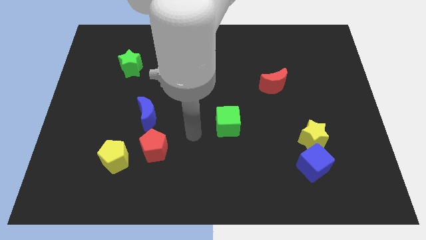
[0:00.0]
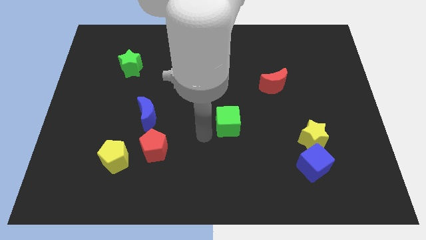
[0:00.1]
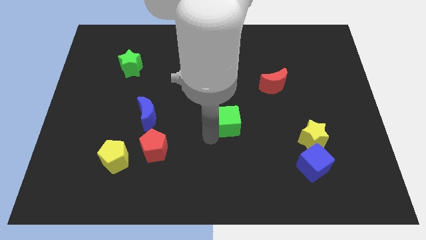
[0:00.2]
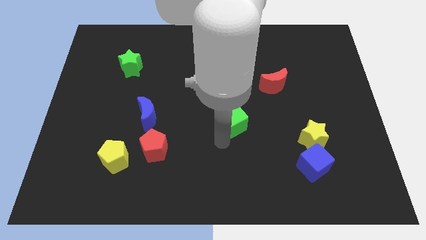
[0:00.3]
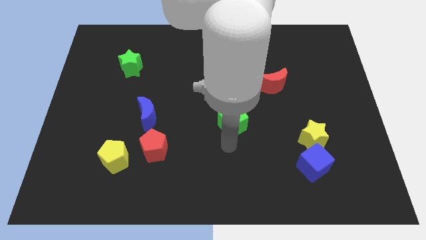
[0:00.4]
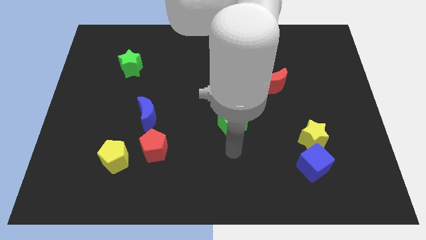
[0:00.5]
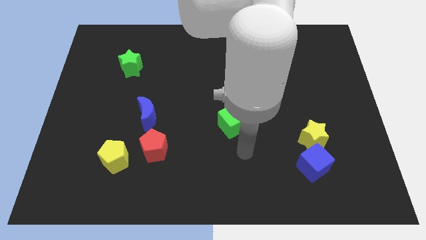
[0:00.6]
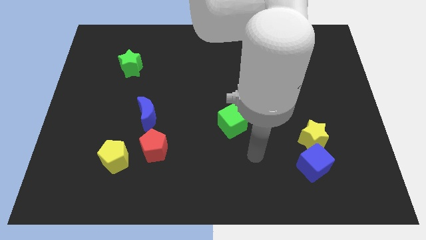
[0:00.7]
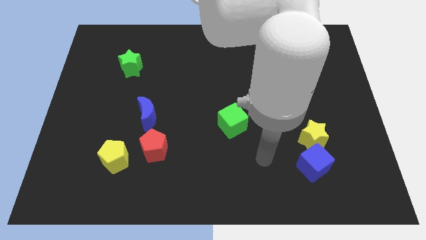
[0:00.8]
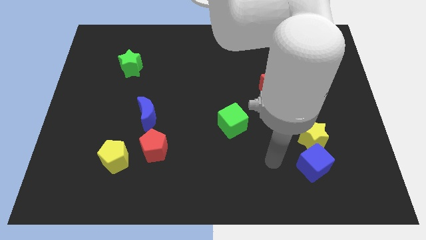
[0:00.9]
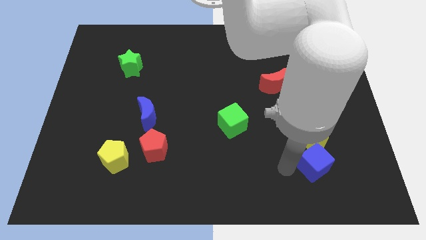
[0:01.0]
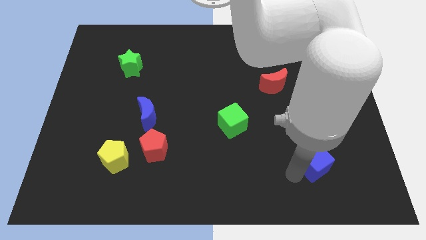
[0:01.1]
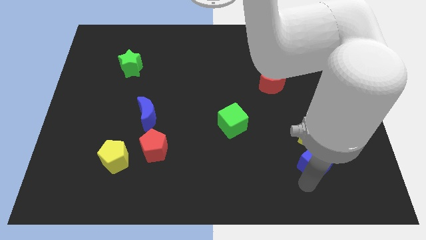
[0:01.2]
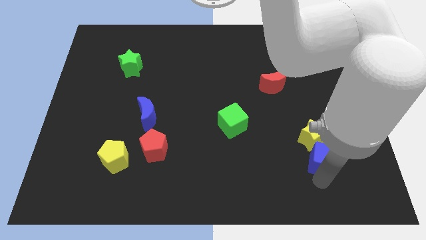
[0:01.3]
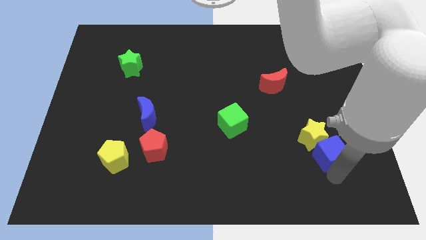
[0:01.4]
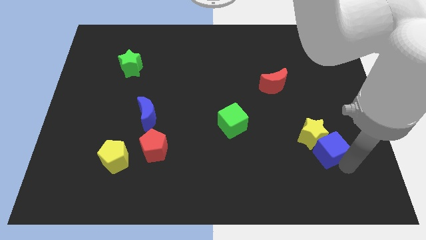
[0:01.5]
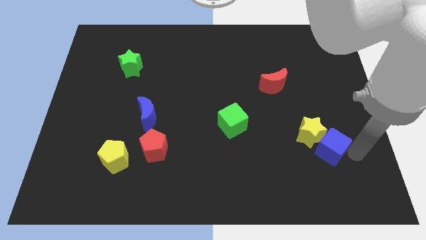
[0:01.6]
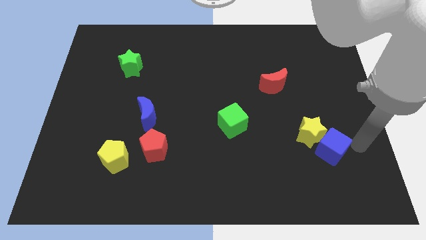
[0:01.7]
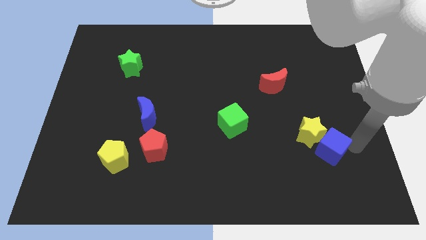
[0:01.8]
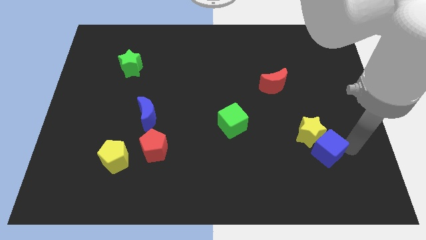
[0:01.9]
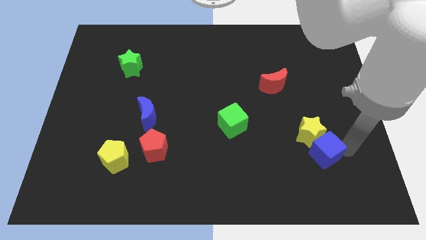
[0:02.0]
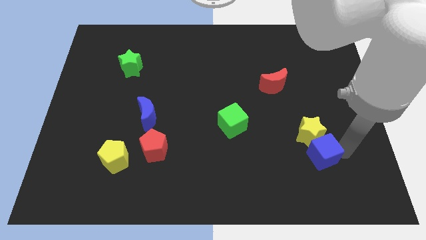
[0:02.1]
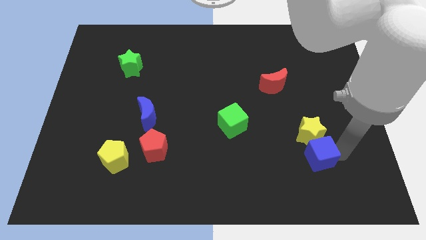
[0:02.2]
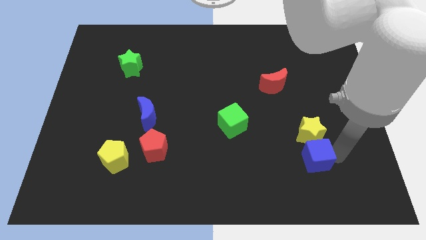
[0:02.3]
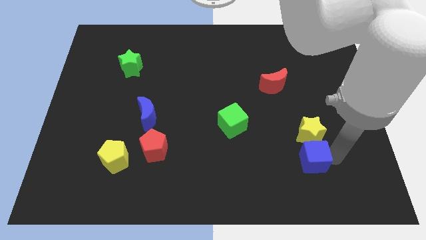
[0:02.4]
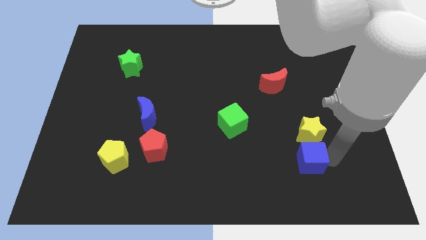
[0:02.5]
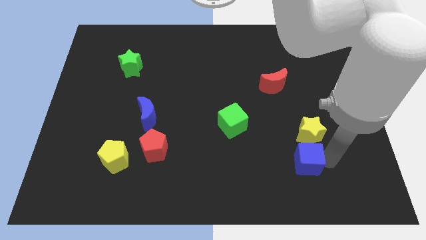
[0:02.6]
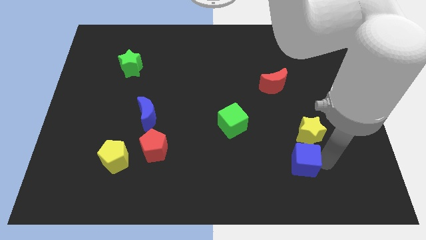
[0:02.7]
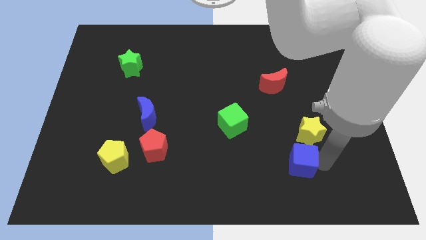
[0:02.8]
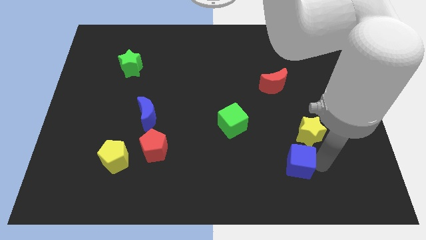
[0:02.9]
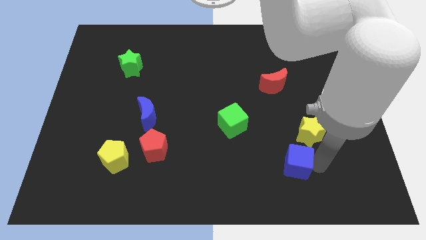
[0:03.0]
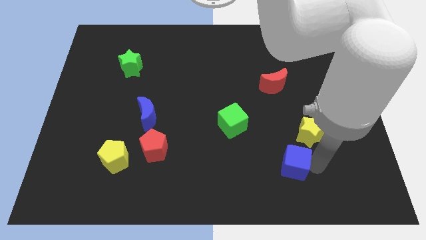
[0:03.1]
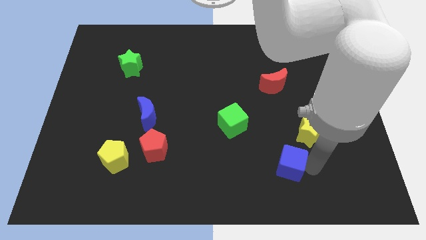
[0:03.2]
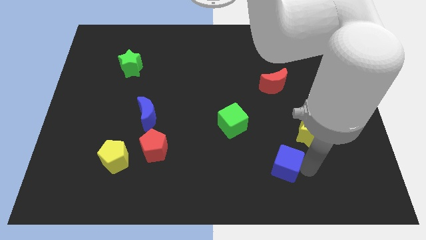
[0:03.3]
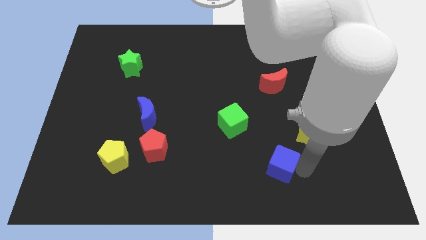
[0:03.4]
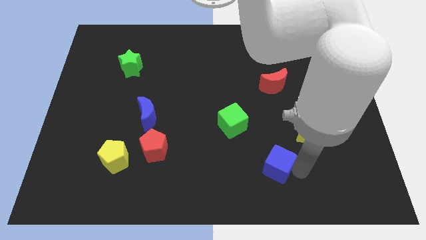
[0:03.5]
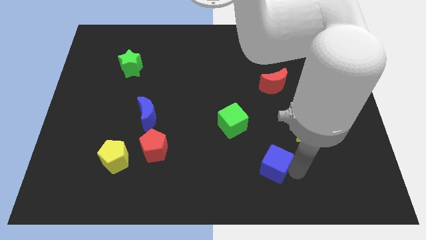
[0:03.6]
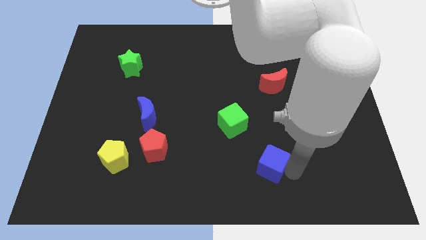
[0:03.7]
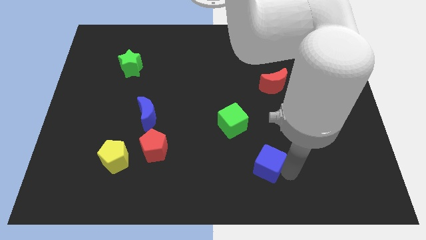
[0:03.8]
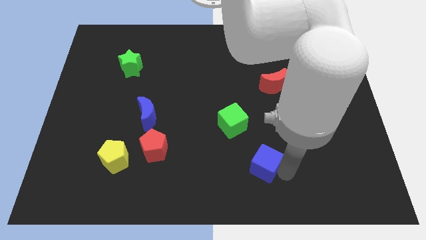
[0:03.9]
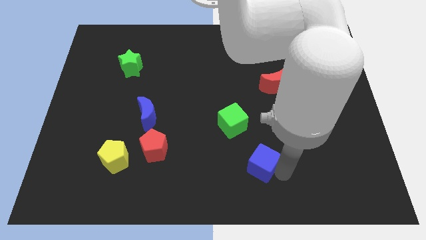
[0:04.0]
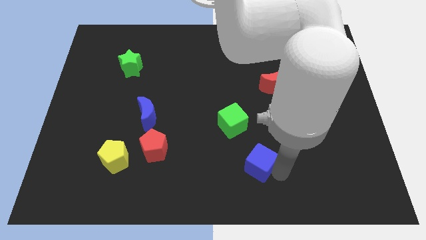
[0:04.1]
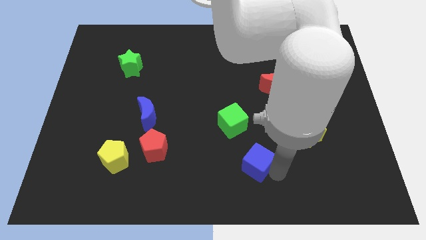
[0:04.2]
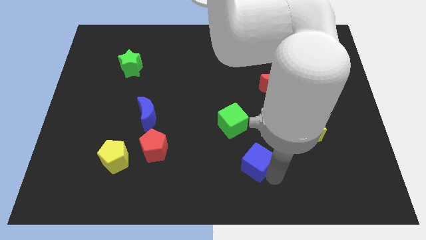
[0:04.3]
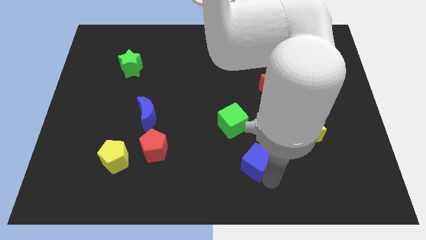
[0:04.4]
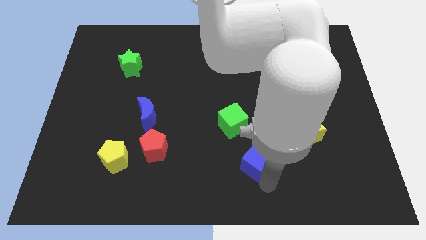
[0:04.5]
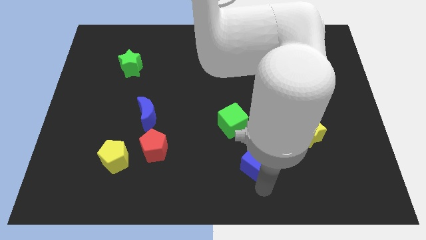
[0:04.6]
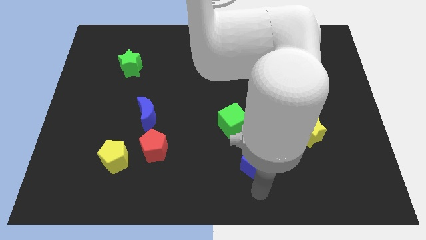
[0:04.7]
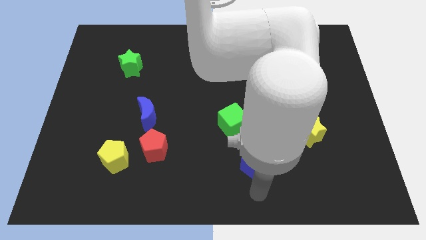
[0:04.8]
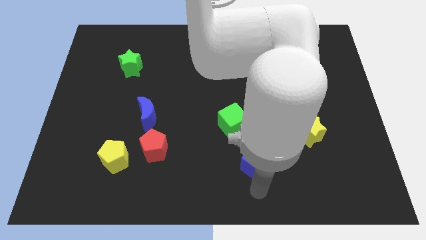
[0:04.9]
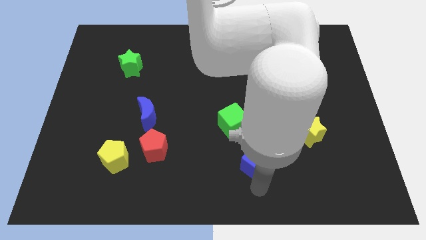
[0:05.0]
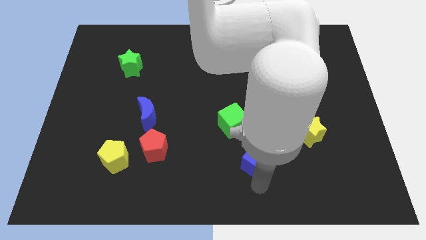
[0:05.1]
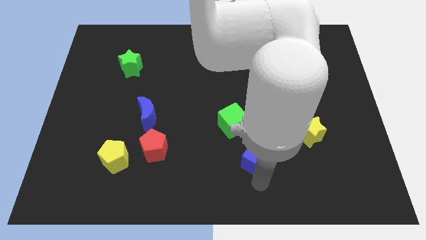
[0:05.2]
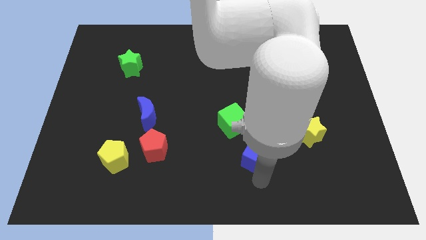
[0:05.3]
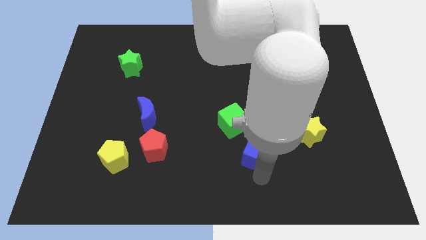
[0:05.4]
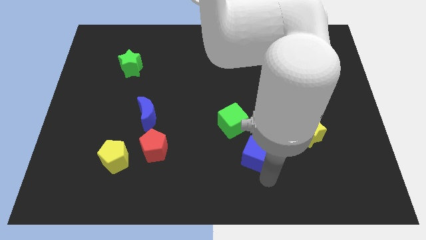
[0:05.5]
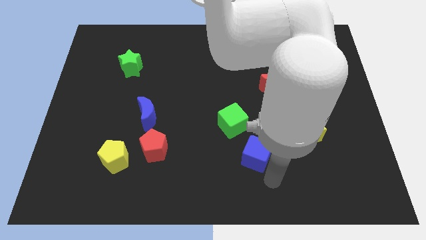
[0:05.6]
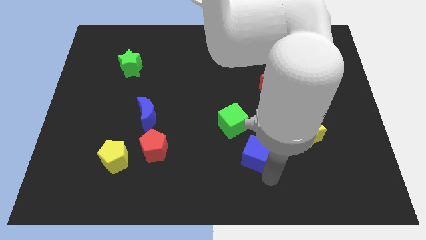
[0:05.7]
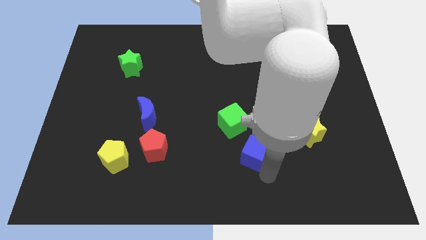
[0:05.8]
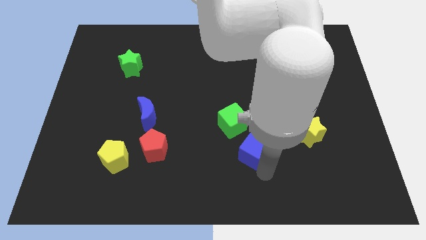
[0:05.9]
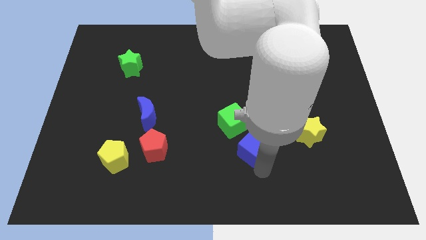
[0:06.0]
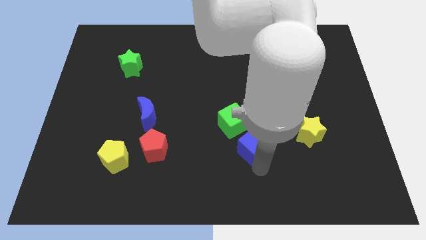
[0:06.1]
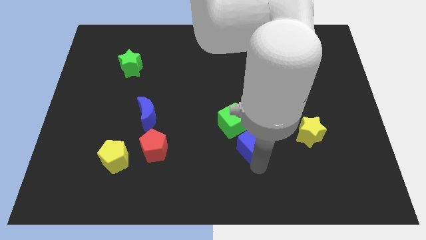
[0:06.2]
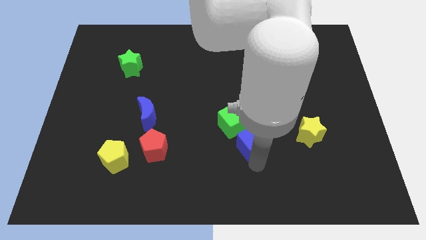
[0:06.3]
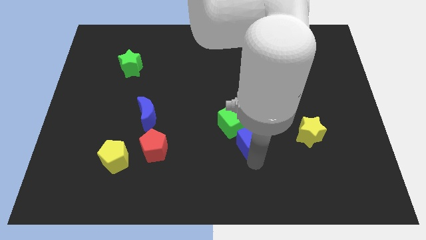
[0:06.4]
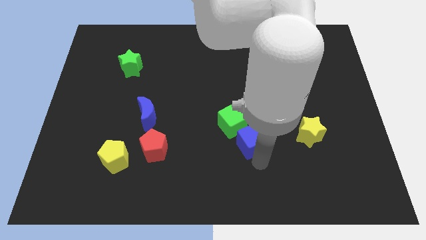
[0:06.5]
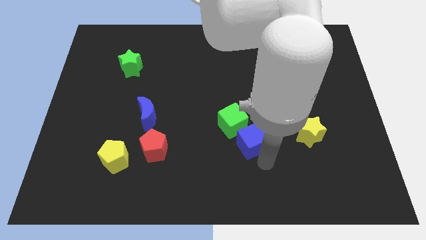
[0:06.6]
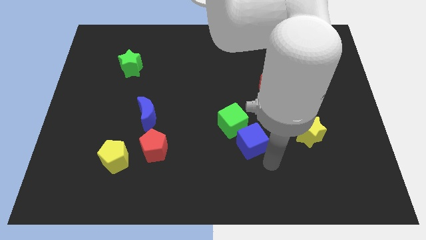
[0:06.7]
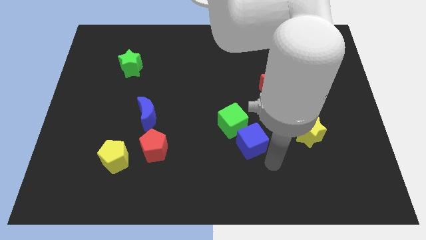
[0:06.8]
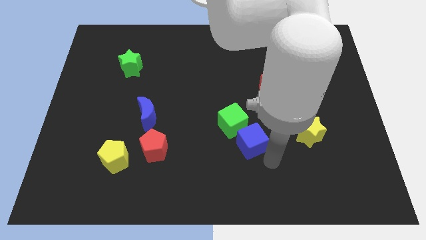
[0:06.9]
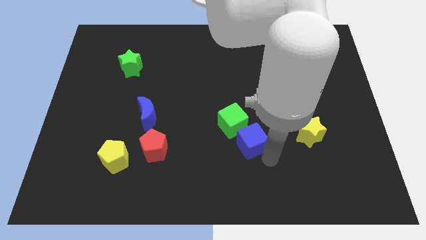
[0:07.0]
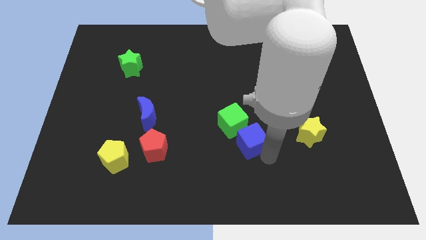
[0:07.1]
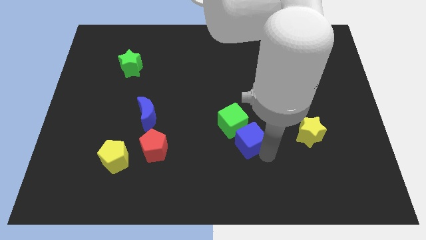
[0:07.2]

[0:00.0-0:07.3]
push the blue cube next to the green cube

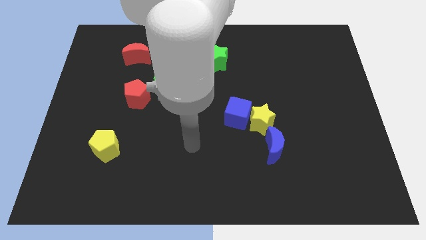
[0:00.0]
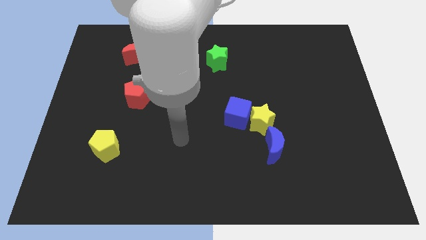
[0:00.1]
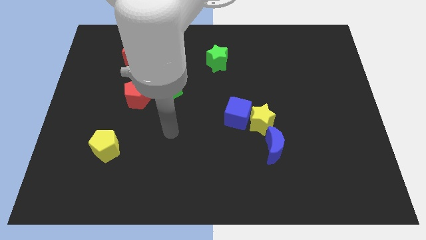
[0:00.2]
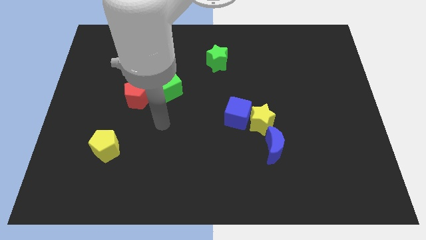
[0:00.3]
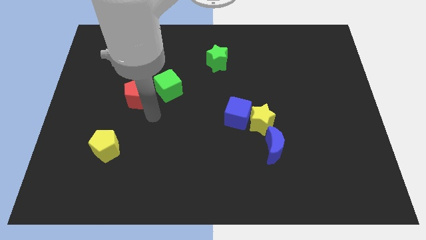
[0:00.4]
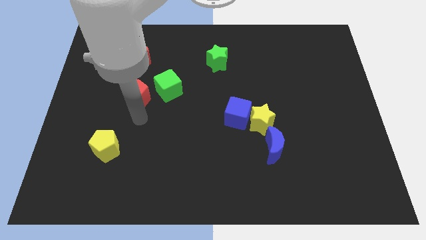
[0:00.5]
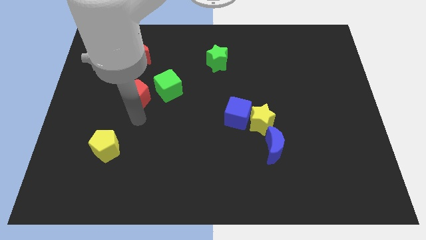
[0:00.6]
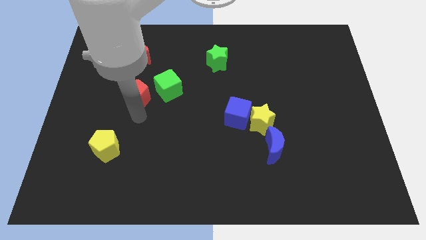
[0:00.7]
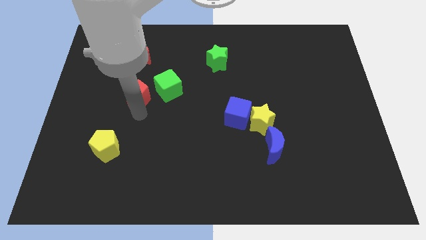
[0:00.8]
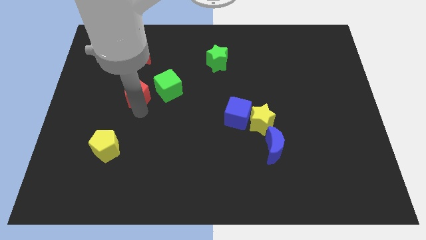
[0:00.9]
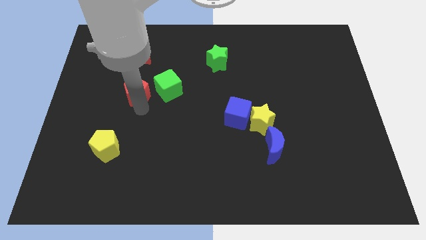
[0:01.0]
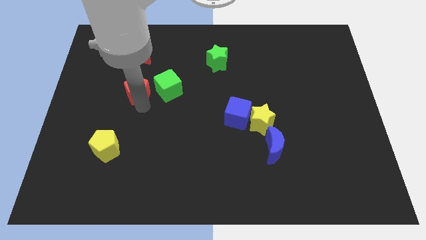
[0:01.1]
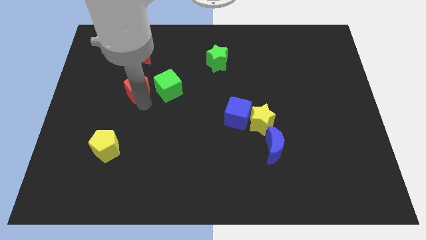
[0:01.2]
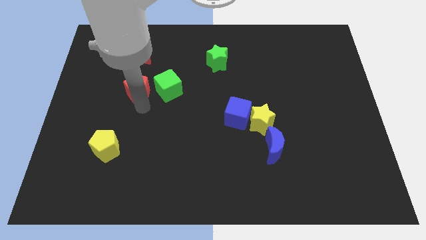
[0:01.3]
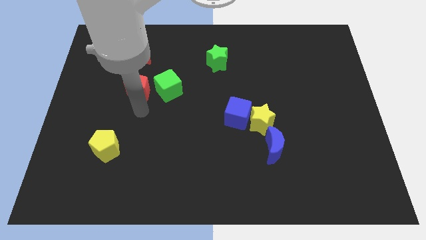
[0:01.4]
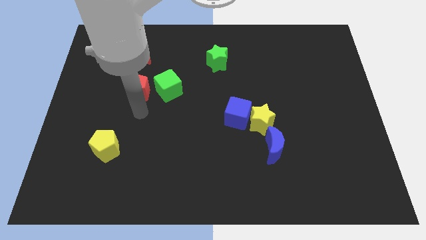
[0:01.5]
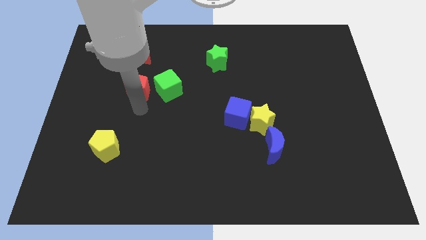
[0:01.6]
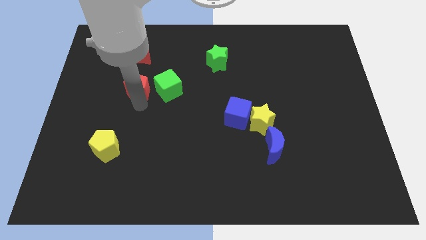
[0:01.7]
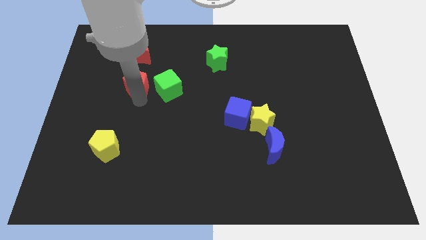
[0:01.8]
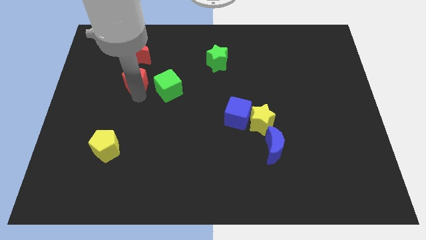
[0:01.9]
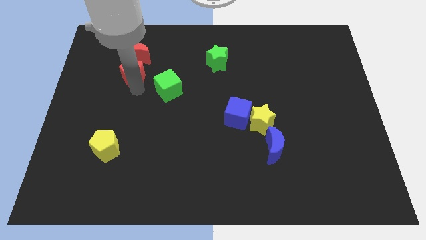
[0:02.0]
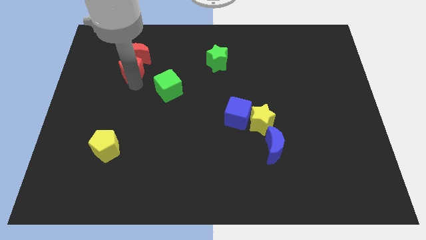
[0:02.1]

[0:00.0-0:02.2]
put the red pentagon close to the red moon
